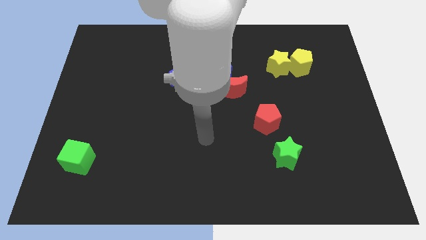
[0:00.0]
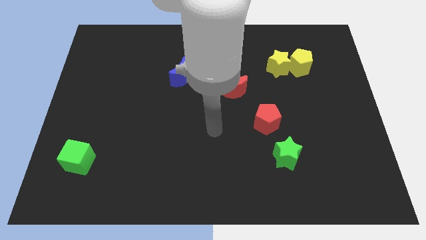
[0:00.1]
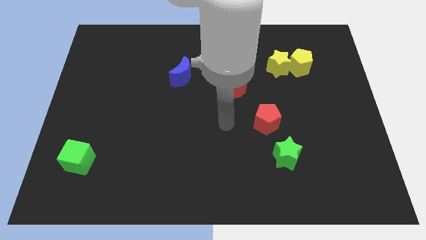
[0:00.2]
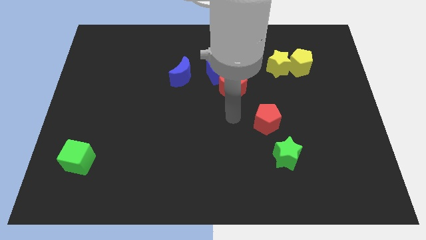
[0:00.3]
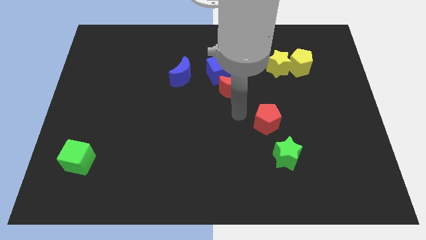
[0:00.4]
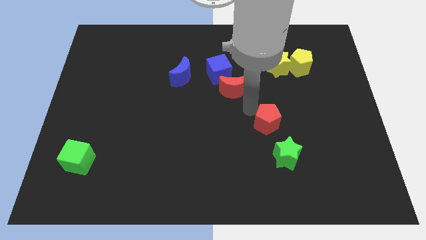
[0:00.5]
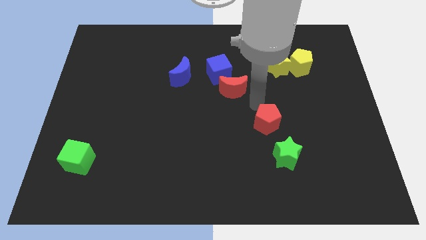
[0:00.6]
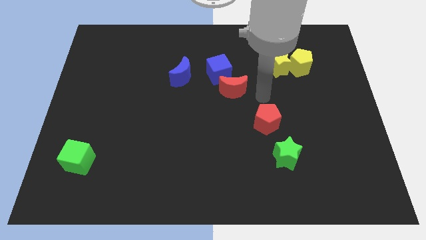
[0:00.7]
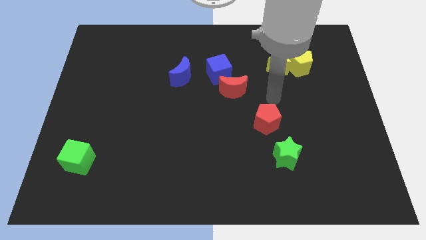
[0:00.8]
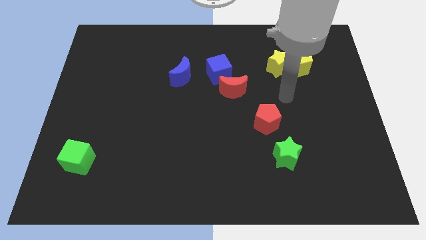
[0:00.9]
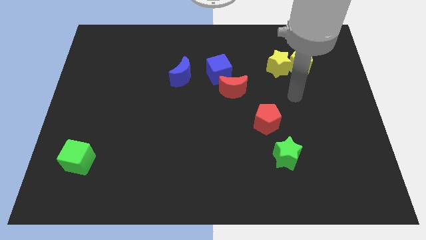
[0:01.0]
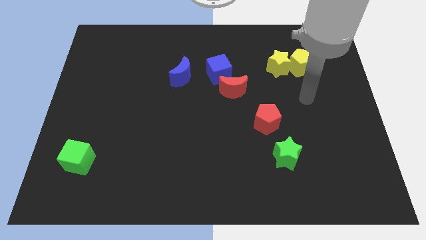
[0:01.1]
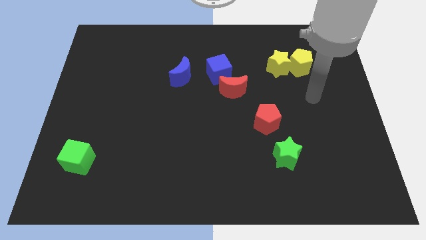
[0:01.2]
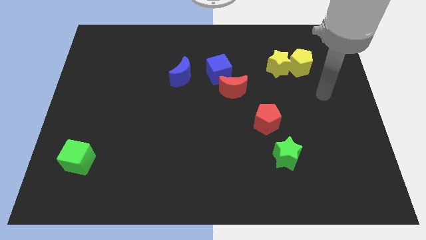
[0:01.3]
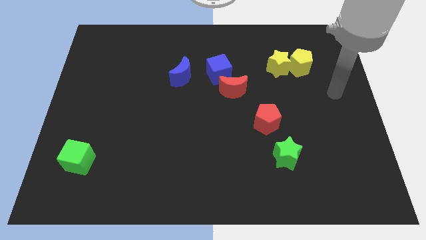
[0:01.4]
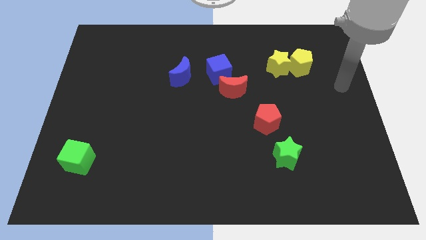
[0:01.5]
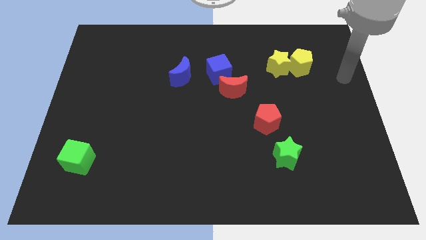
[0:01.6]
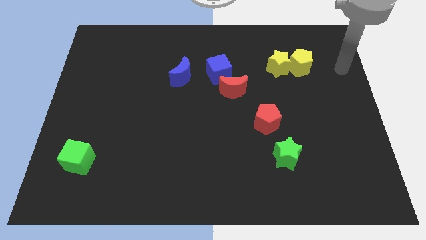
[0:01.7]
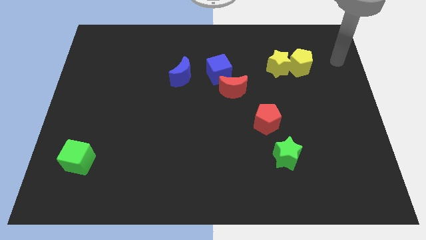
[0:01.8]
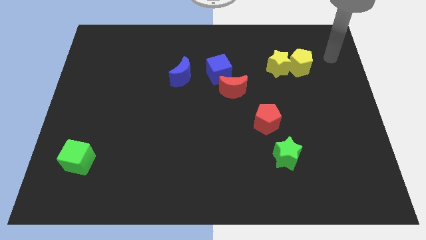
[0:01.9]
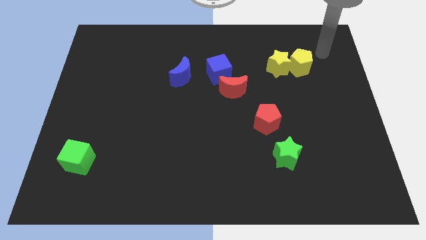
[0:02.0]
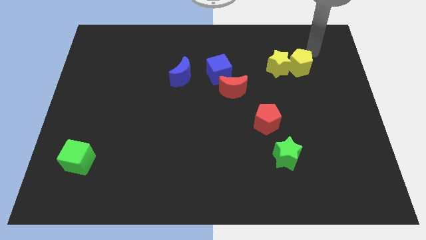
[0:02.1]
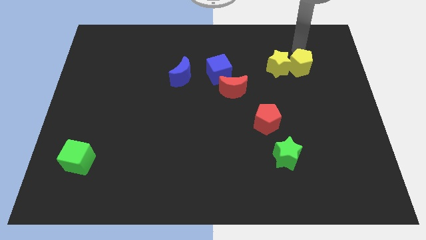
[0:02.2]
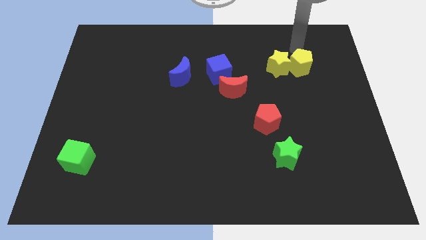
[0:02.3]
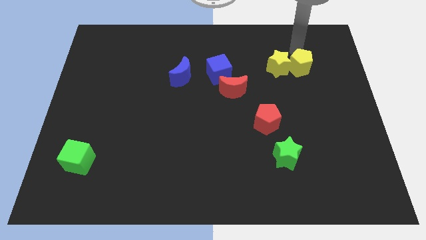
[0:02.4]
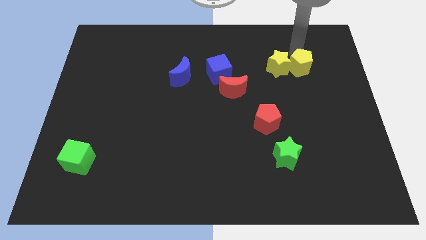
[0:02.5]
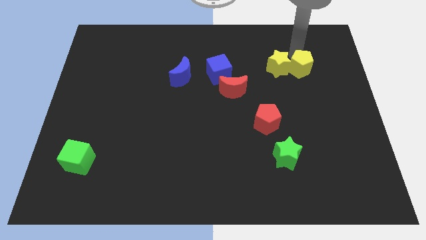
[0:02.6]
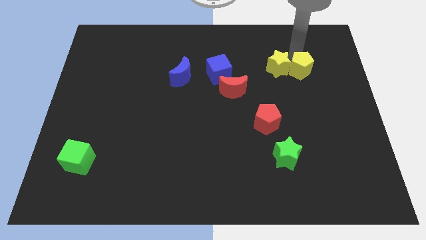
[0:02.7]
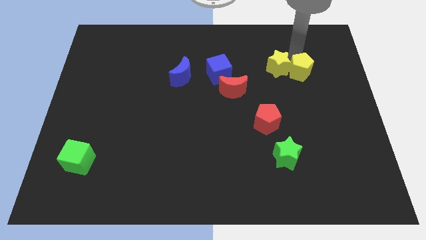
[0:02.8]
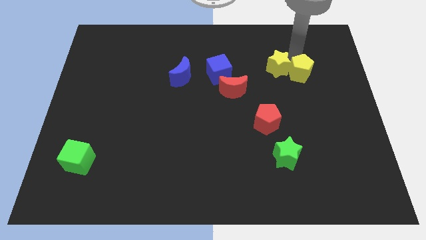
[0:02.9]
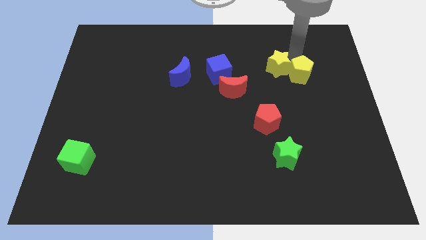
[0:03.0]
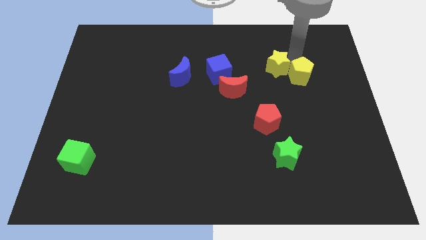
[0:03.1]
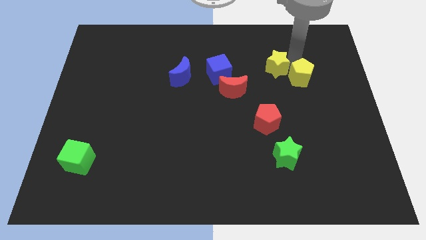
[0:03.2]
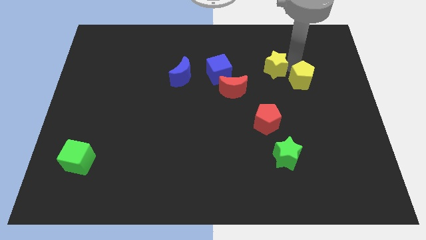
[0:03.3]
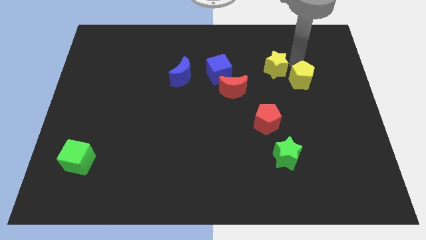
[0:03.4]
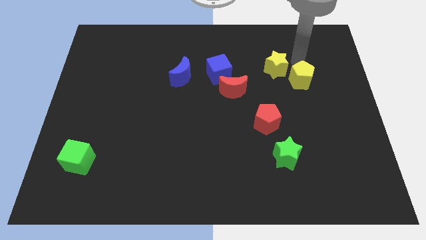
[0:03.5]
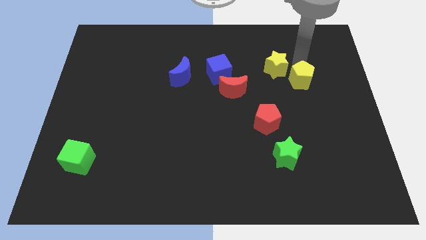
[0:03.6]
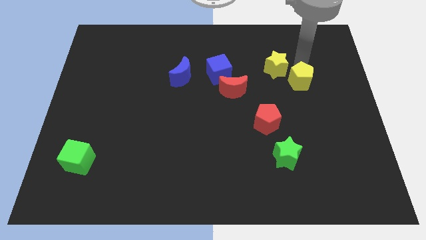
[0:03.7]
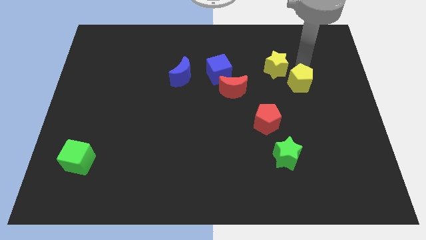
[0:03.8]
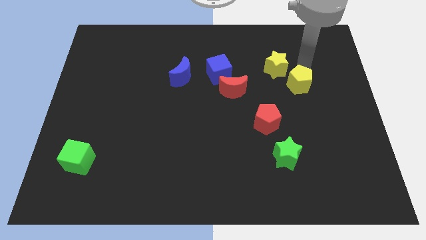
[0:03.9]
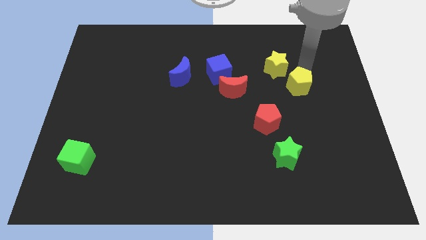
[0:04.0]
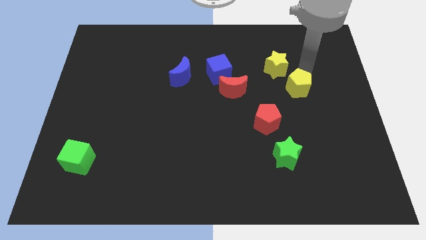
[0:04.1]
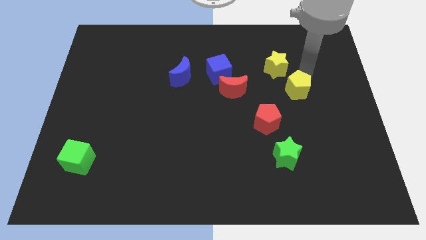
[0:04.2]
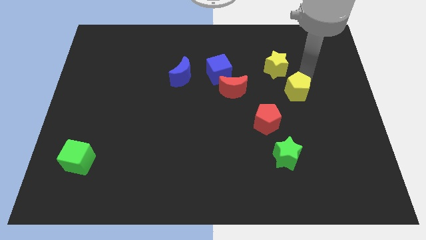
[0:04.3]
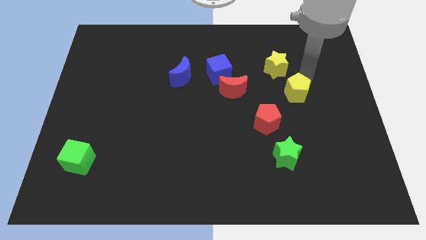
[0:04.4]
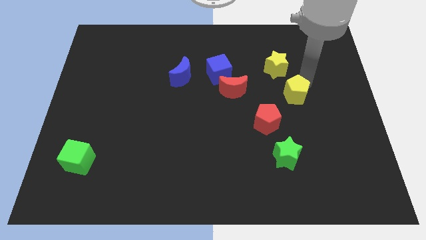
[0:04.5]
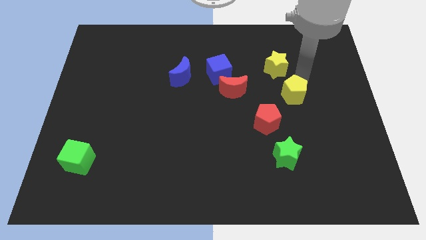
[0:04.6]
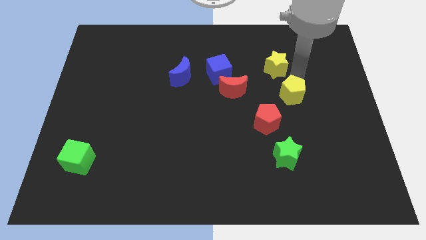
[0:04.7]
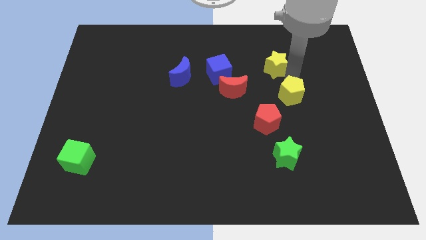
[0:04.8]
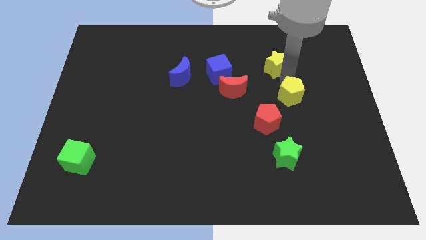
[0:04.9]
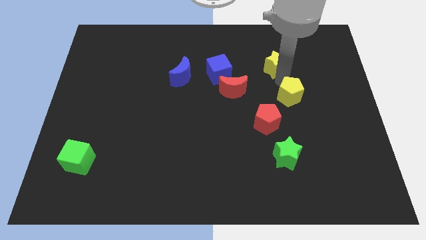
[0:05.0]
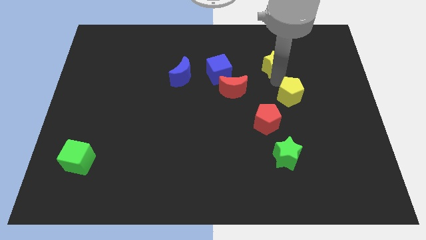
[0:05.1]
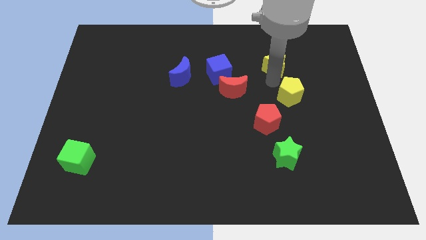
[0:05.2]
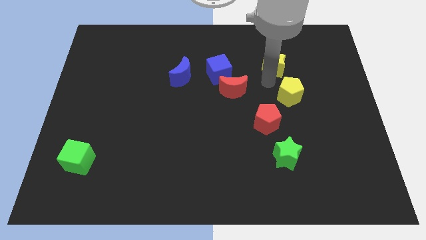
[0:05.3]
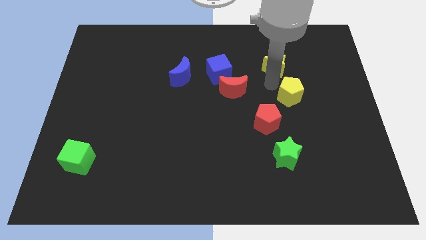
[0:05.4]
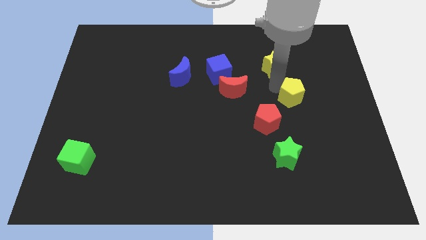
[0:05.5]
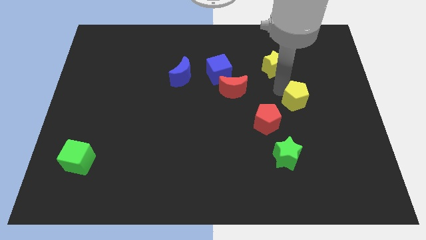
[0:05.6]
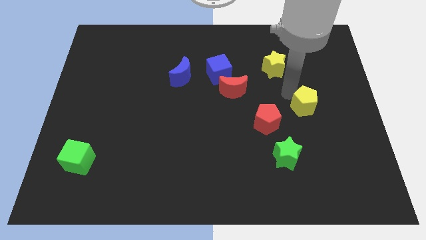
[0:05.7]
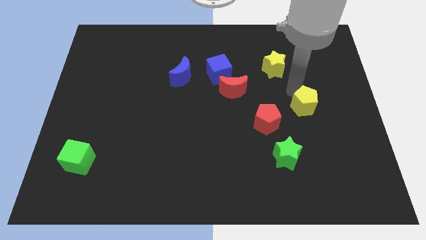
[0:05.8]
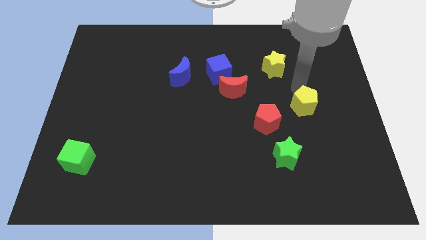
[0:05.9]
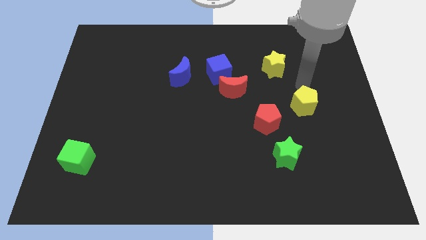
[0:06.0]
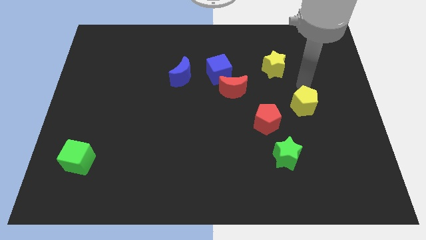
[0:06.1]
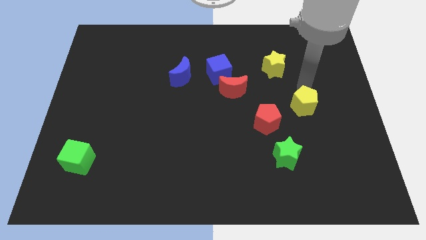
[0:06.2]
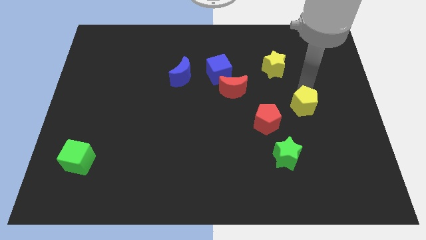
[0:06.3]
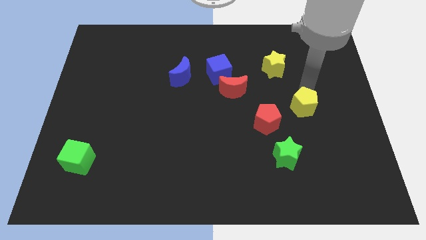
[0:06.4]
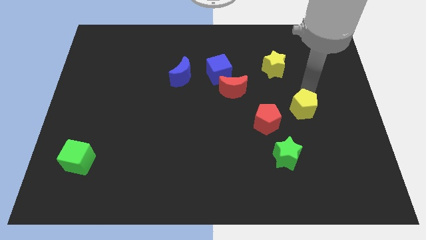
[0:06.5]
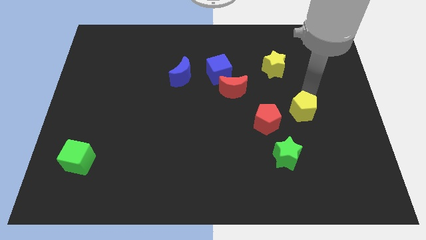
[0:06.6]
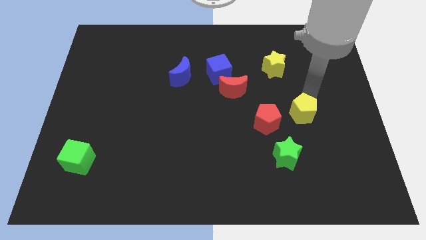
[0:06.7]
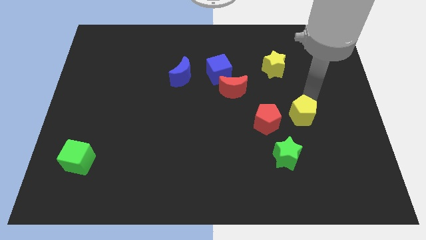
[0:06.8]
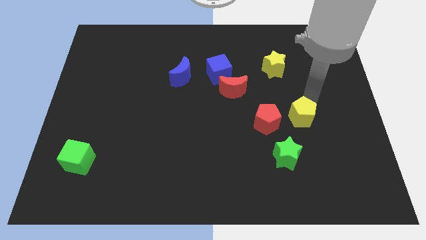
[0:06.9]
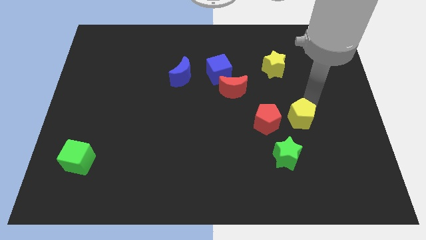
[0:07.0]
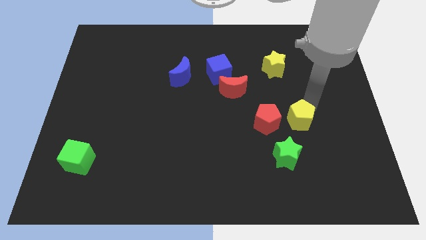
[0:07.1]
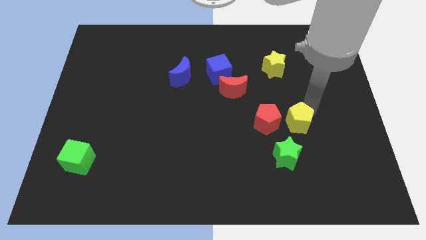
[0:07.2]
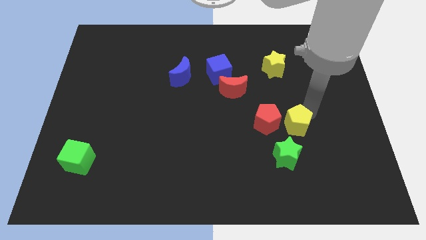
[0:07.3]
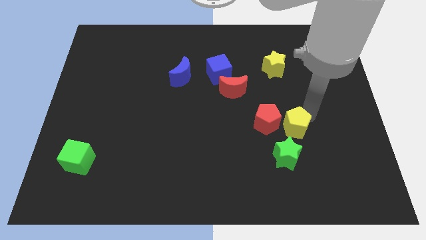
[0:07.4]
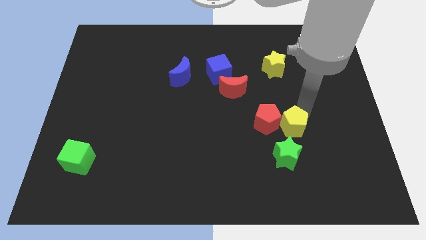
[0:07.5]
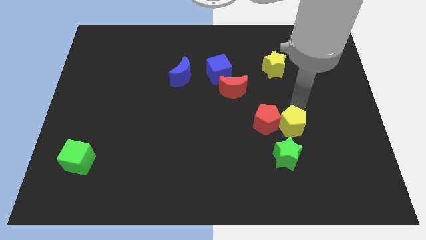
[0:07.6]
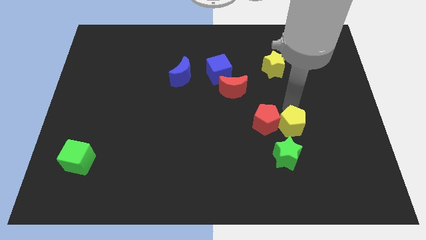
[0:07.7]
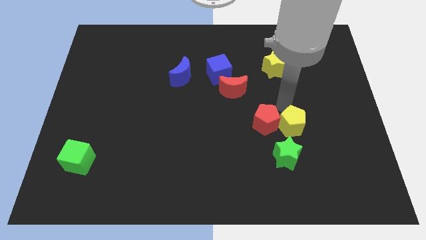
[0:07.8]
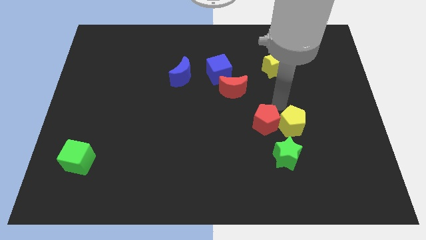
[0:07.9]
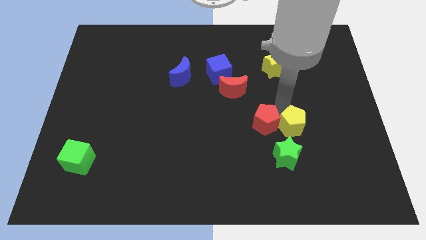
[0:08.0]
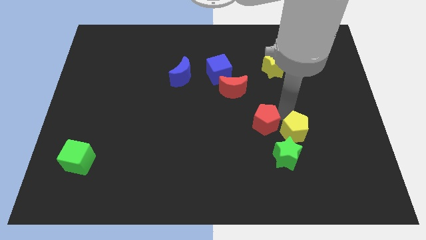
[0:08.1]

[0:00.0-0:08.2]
slide the yellow pentagon down
